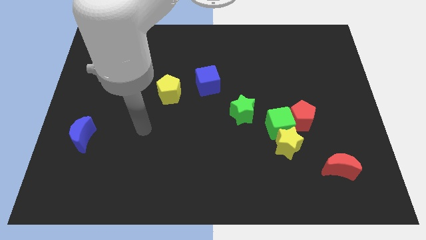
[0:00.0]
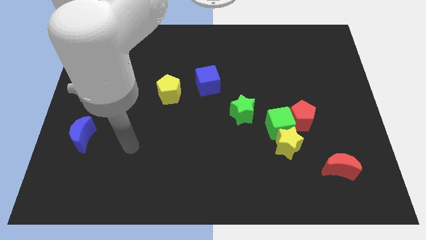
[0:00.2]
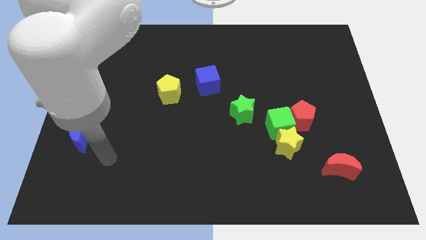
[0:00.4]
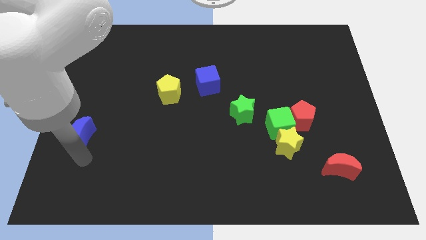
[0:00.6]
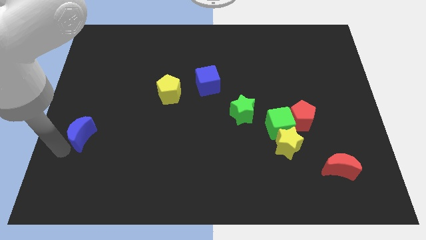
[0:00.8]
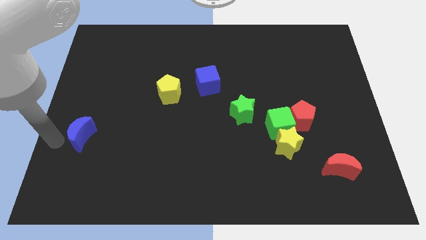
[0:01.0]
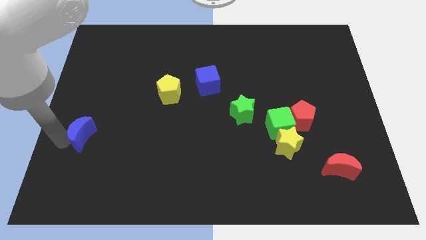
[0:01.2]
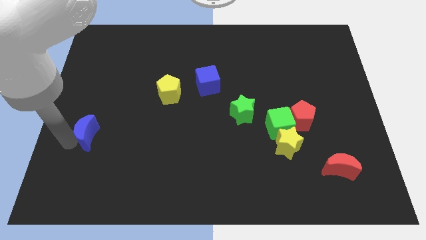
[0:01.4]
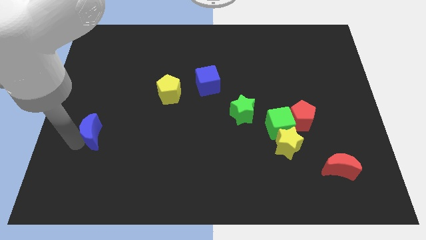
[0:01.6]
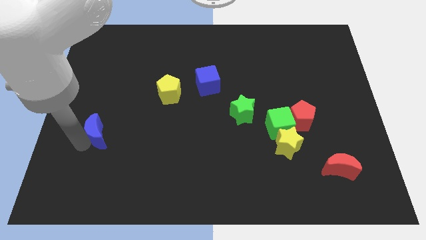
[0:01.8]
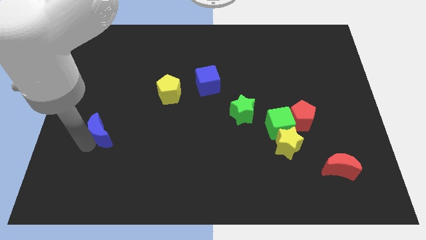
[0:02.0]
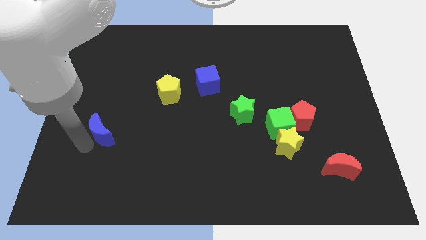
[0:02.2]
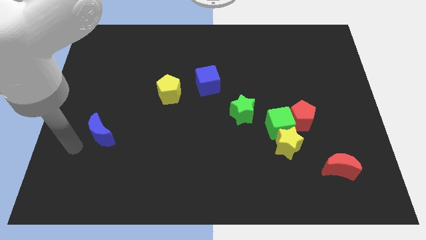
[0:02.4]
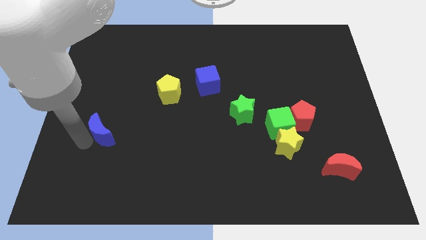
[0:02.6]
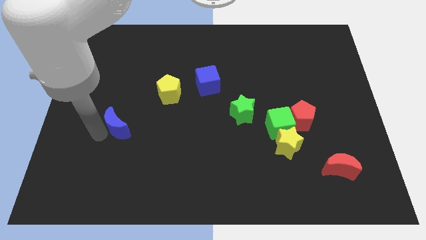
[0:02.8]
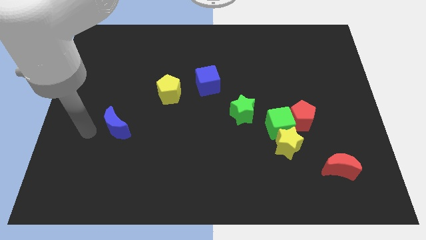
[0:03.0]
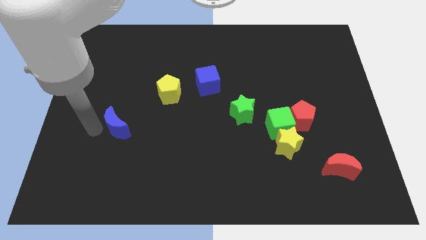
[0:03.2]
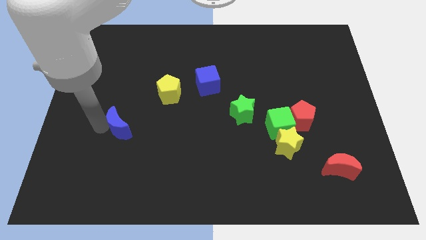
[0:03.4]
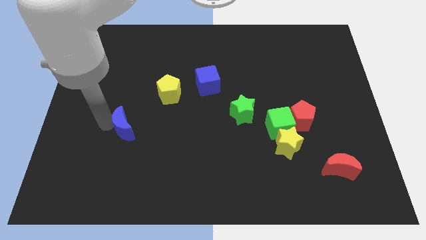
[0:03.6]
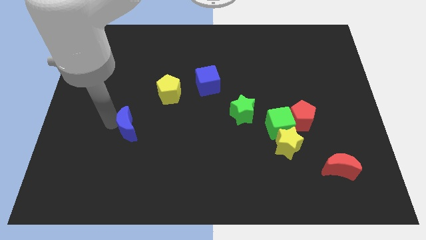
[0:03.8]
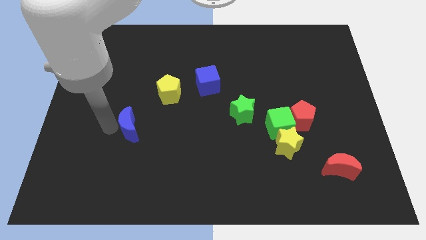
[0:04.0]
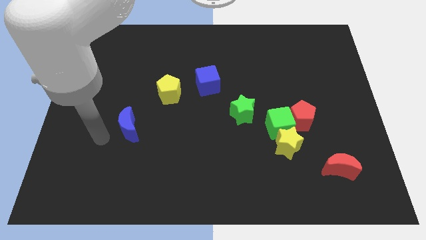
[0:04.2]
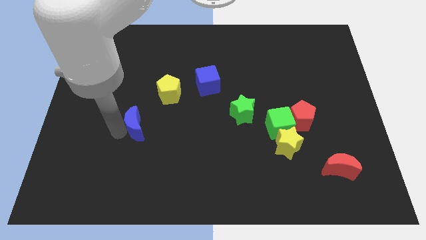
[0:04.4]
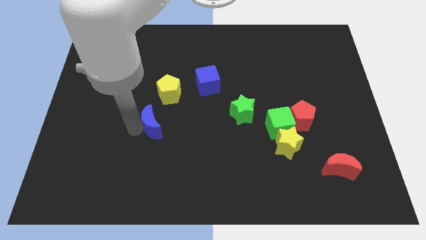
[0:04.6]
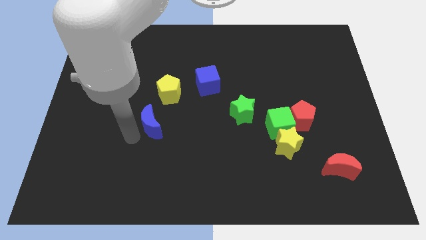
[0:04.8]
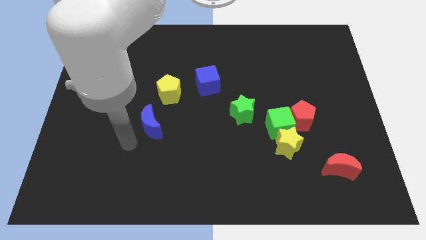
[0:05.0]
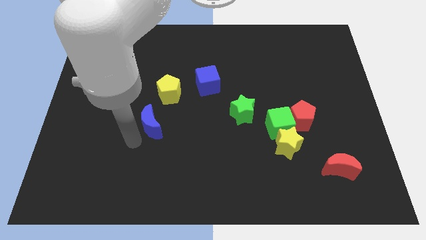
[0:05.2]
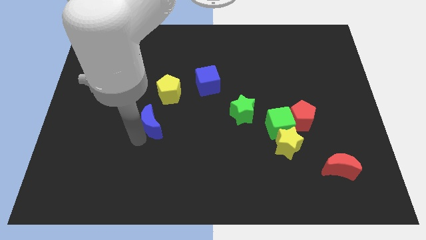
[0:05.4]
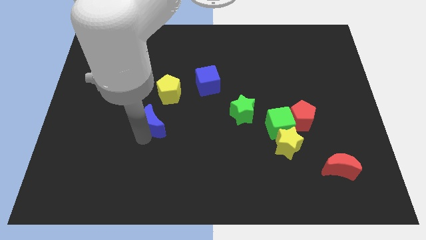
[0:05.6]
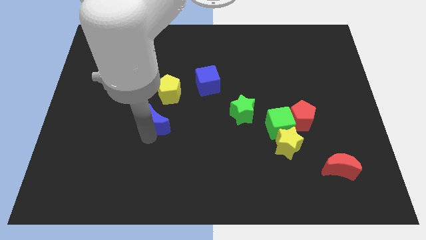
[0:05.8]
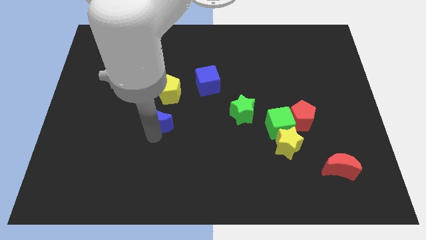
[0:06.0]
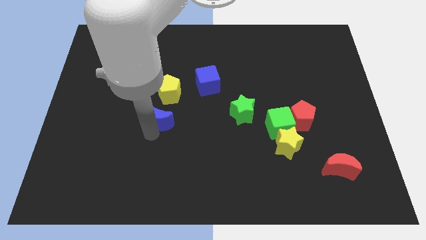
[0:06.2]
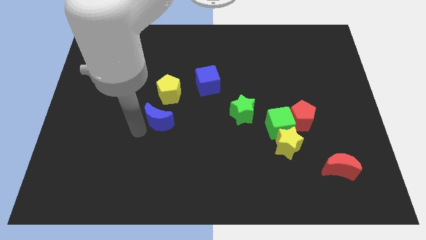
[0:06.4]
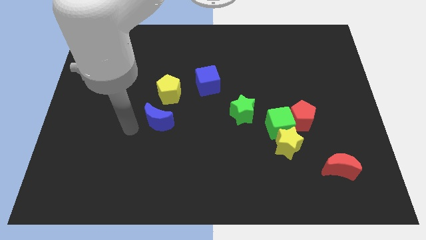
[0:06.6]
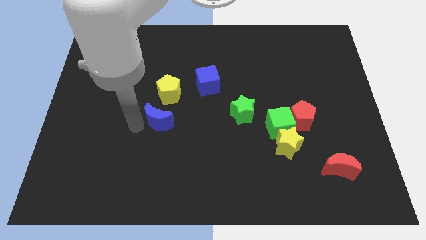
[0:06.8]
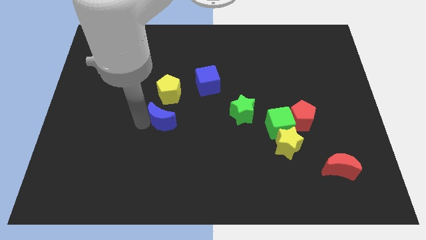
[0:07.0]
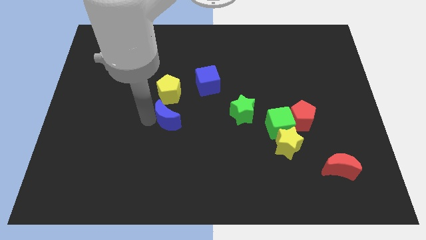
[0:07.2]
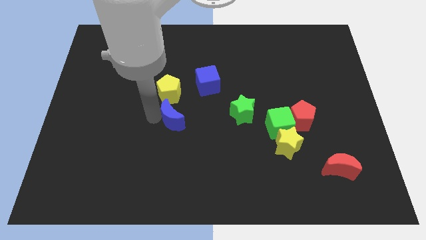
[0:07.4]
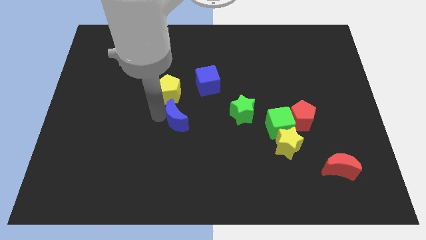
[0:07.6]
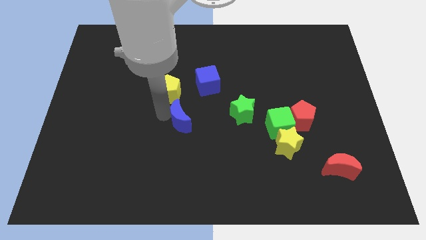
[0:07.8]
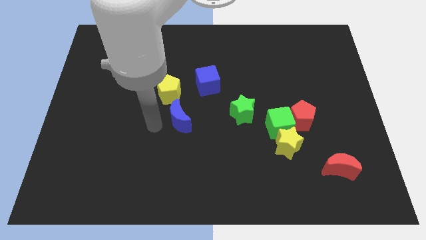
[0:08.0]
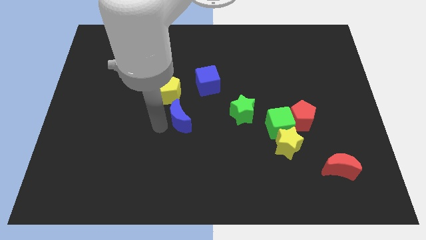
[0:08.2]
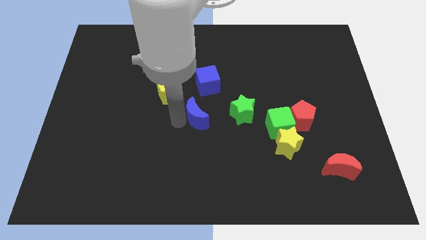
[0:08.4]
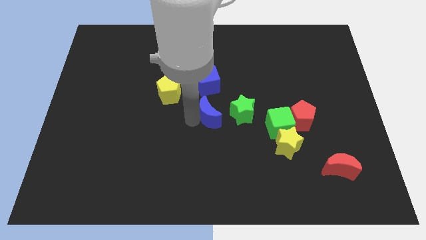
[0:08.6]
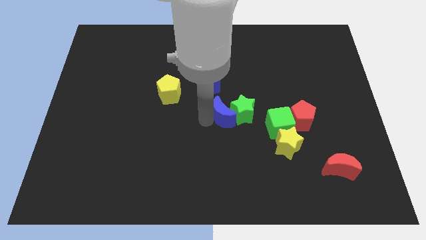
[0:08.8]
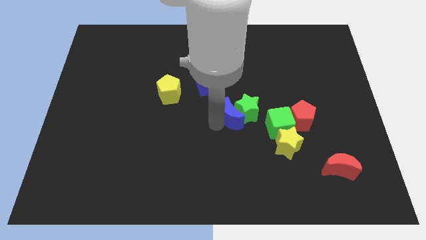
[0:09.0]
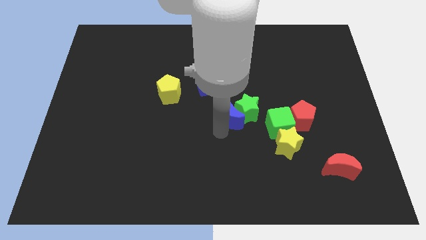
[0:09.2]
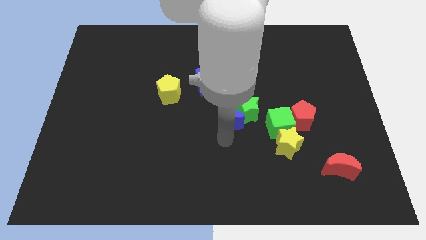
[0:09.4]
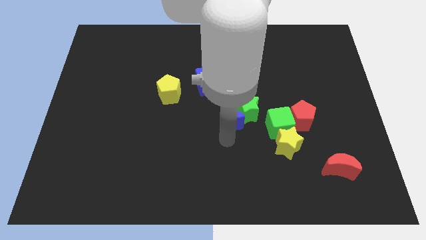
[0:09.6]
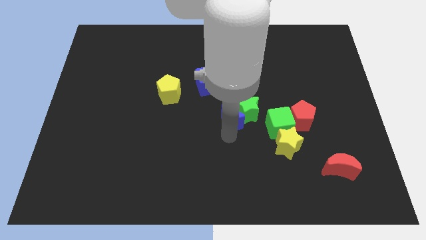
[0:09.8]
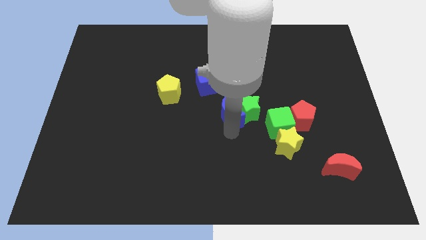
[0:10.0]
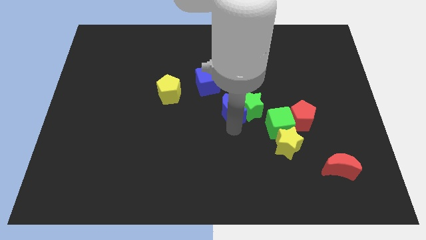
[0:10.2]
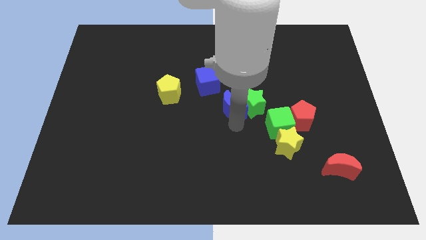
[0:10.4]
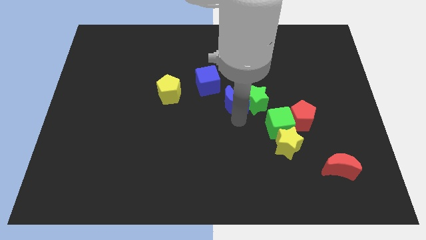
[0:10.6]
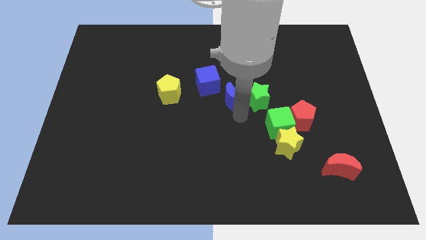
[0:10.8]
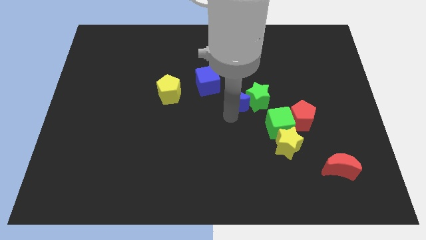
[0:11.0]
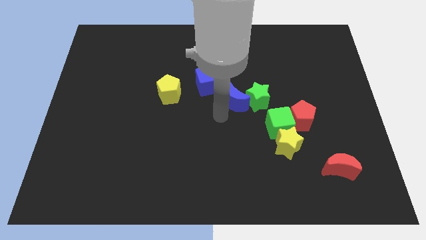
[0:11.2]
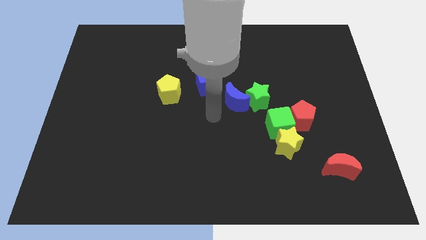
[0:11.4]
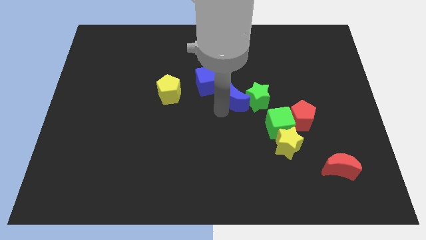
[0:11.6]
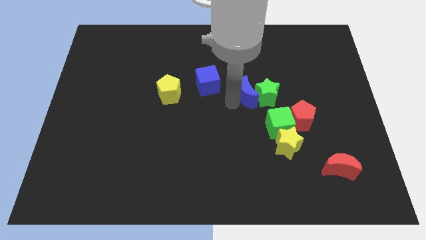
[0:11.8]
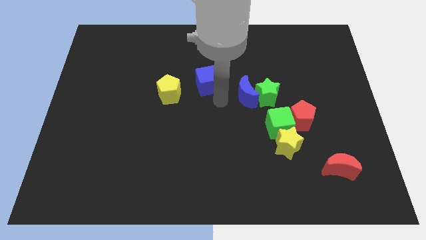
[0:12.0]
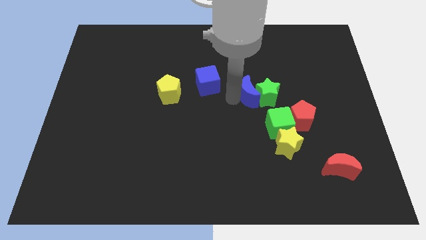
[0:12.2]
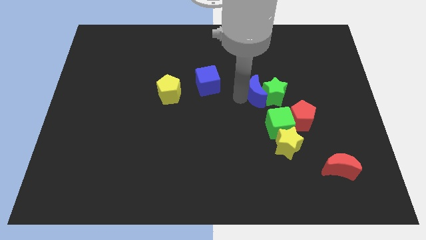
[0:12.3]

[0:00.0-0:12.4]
move the blue moon to the top of the green cube

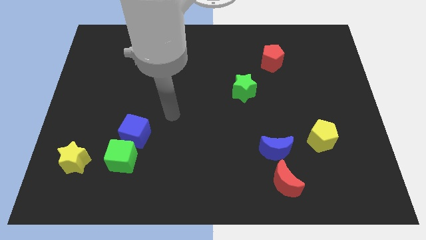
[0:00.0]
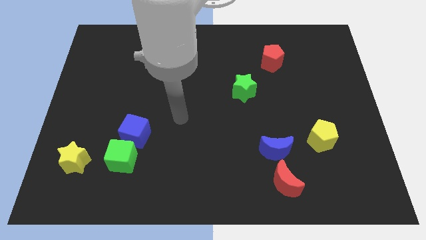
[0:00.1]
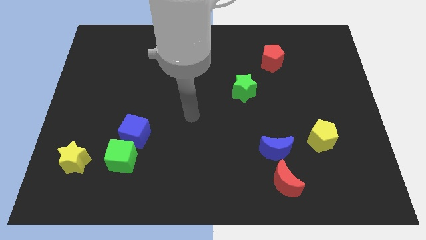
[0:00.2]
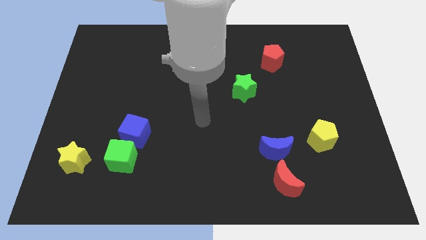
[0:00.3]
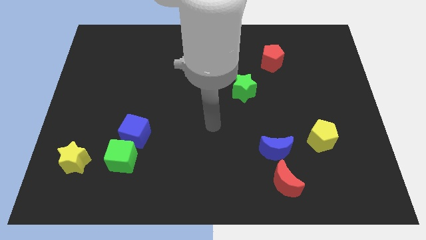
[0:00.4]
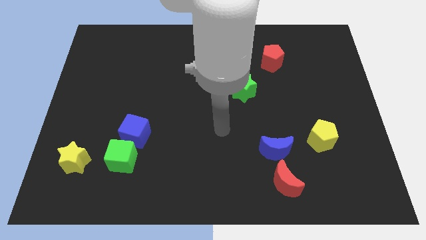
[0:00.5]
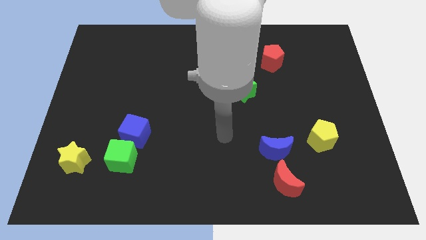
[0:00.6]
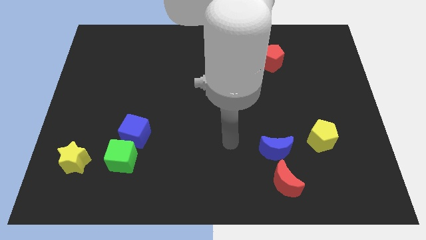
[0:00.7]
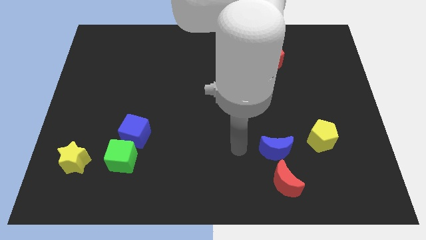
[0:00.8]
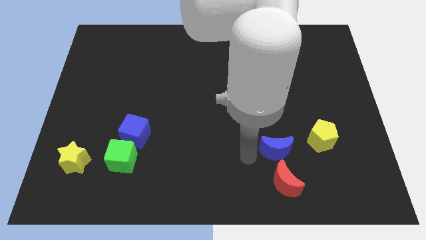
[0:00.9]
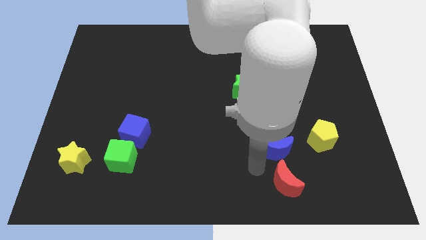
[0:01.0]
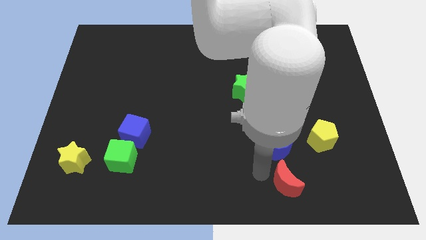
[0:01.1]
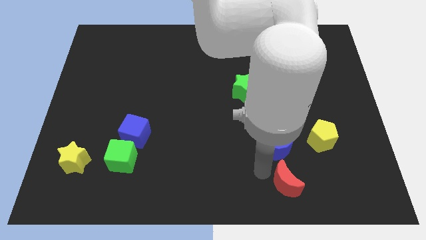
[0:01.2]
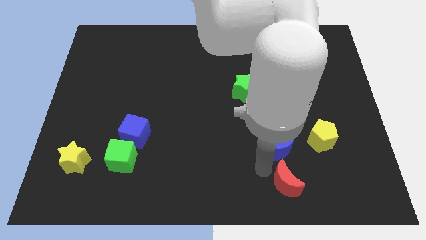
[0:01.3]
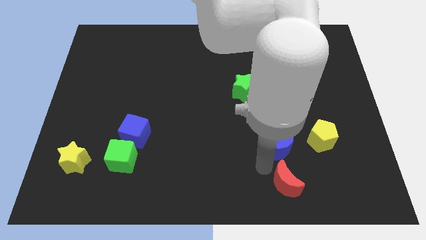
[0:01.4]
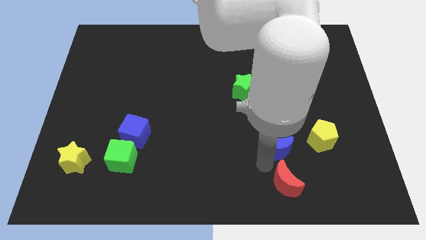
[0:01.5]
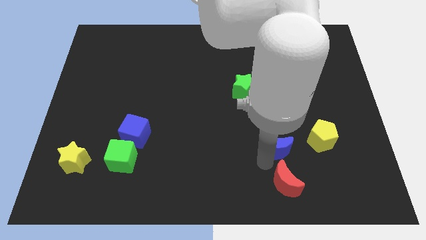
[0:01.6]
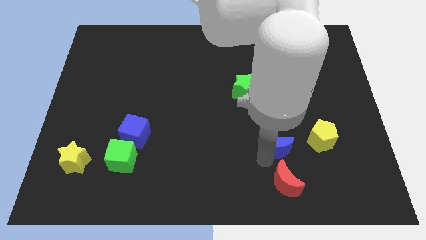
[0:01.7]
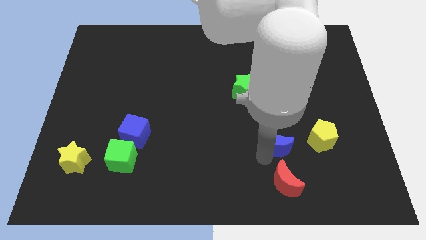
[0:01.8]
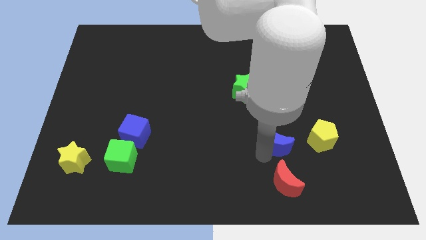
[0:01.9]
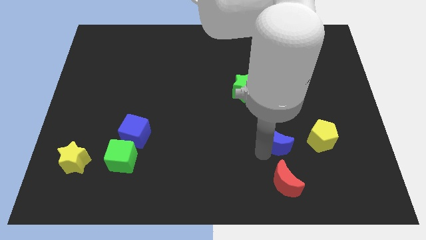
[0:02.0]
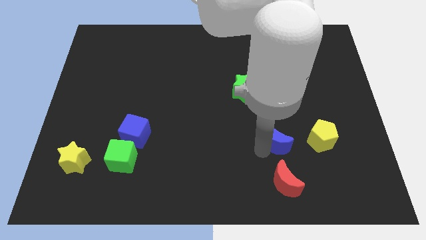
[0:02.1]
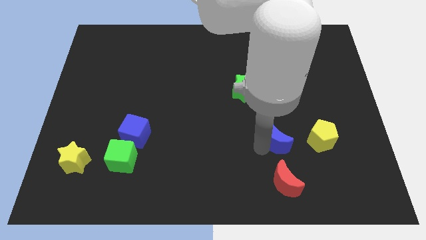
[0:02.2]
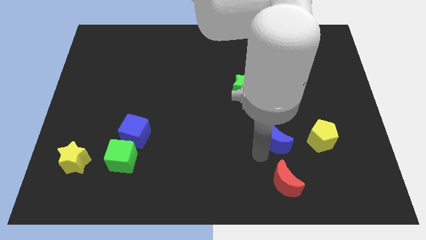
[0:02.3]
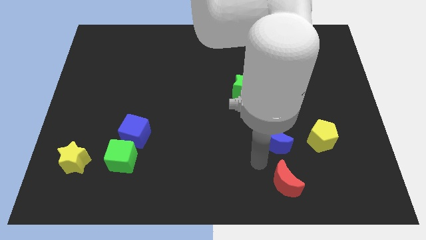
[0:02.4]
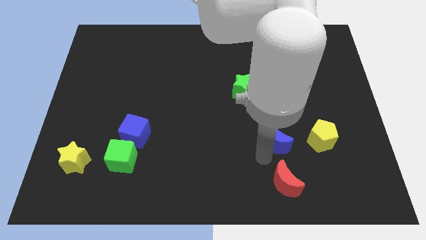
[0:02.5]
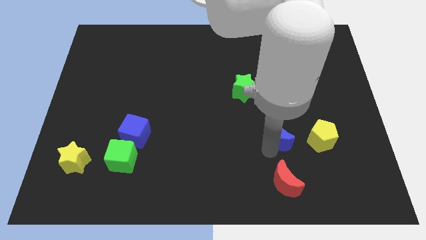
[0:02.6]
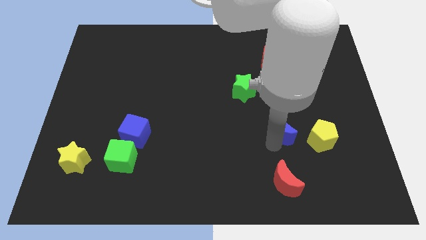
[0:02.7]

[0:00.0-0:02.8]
move the blue moon diagonally up and to the left of the yellow pentagon
